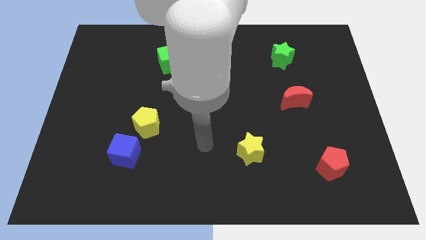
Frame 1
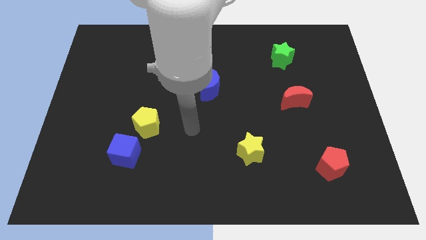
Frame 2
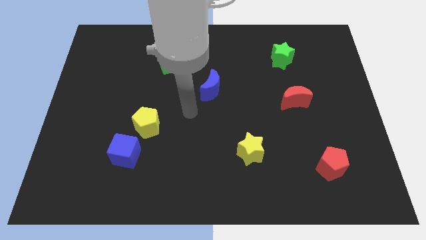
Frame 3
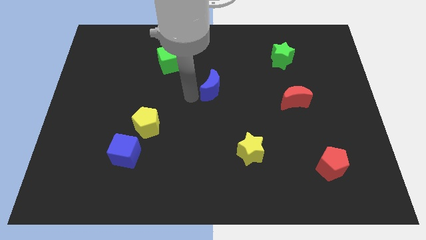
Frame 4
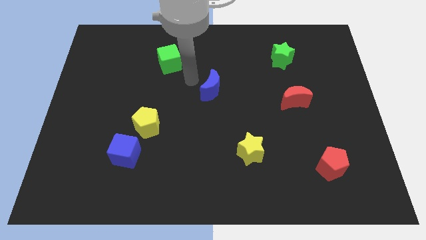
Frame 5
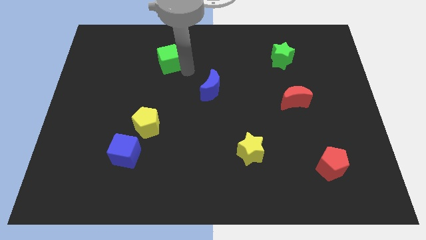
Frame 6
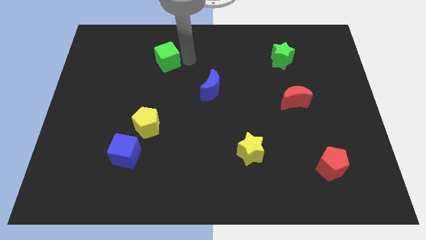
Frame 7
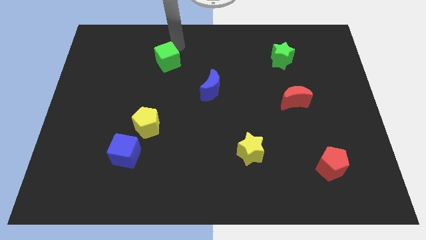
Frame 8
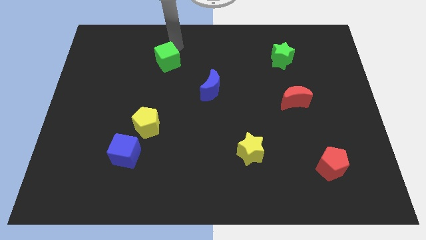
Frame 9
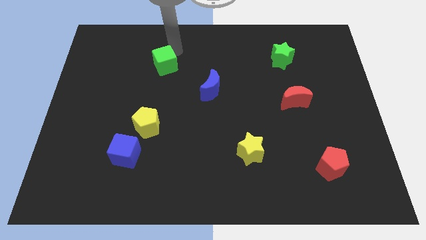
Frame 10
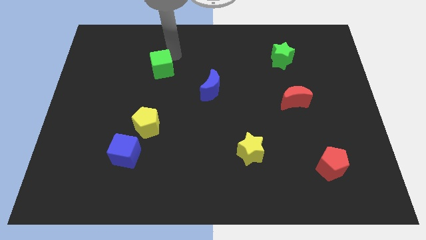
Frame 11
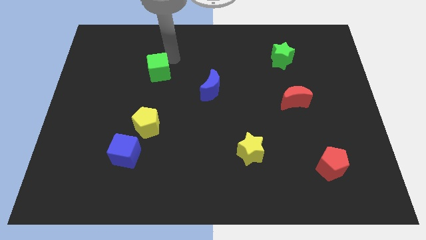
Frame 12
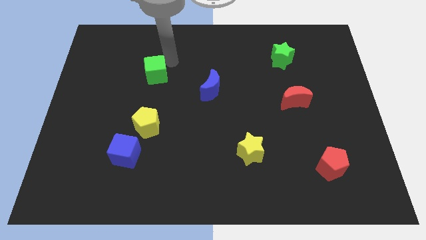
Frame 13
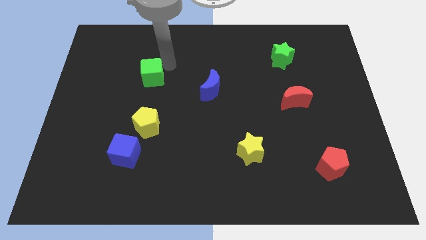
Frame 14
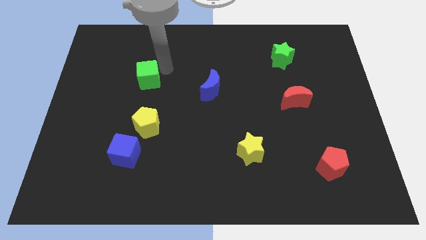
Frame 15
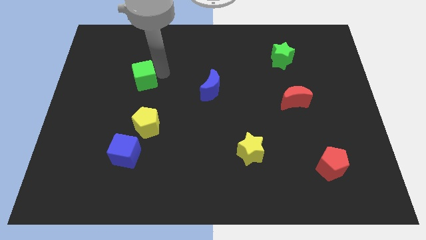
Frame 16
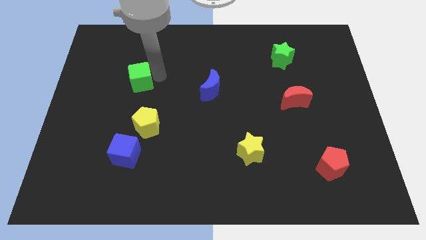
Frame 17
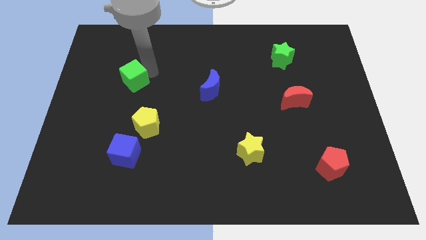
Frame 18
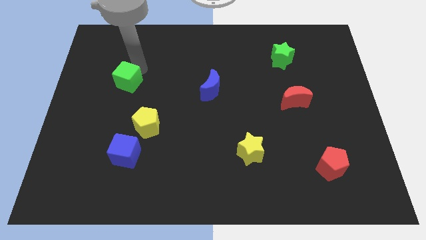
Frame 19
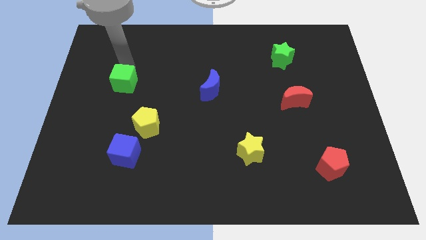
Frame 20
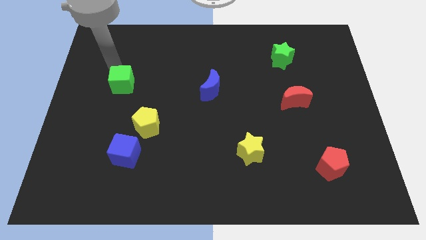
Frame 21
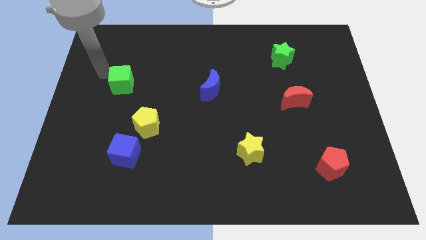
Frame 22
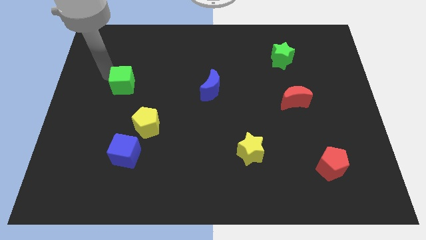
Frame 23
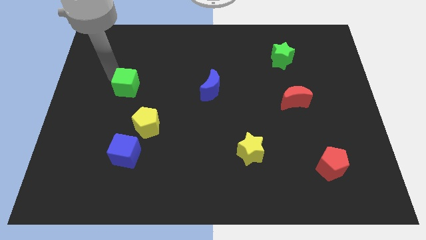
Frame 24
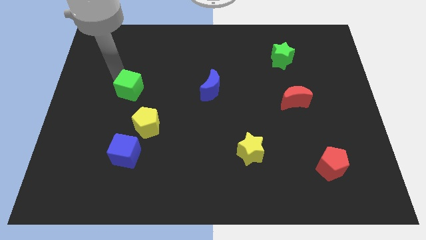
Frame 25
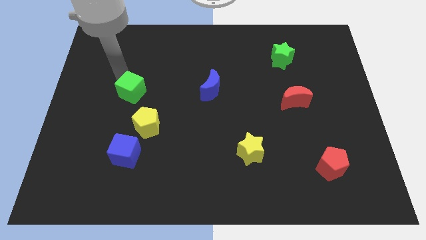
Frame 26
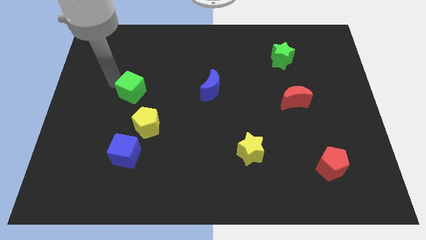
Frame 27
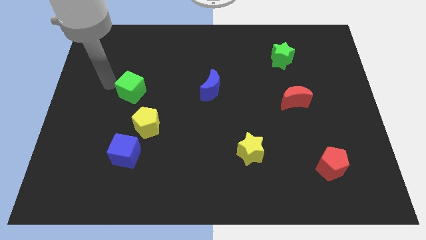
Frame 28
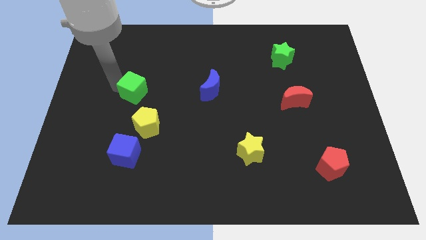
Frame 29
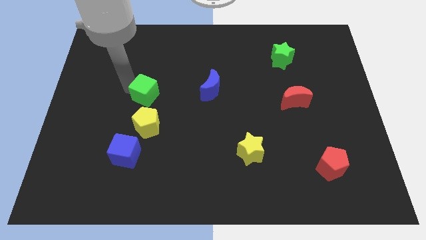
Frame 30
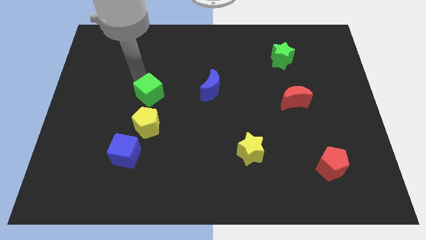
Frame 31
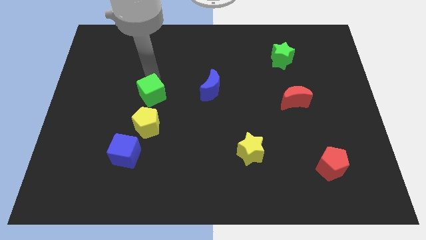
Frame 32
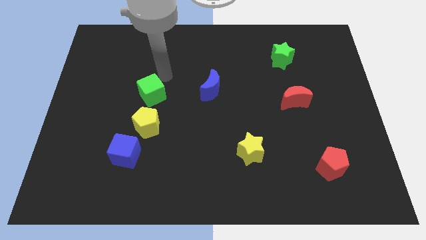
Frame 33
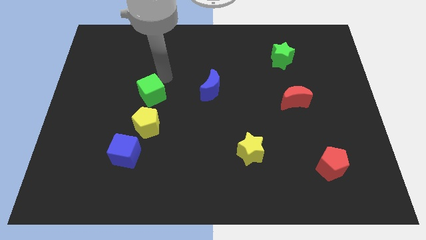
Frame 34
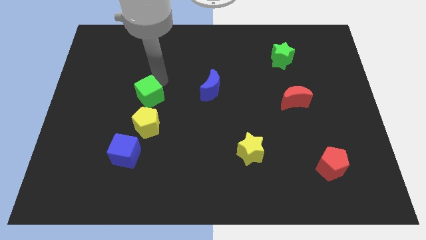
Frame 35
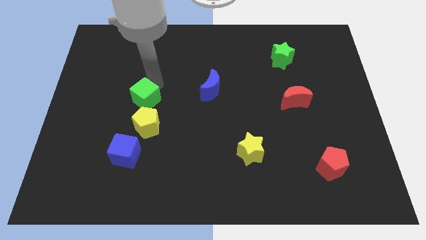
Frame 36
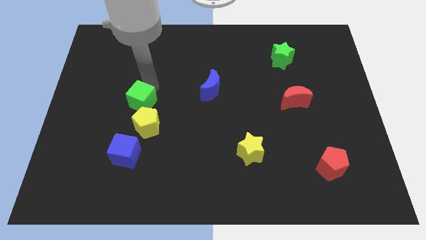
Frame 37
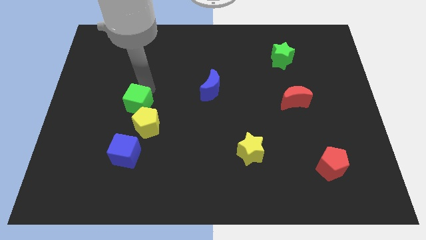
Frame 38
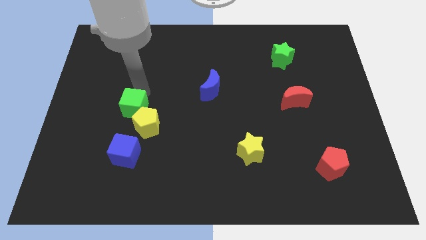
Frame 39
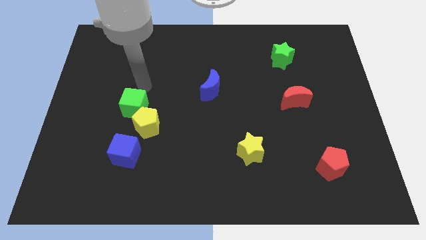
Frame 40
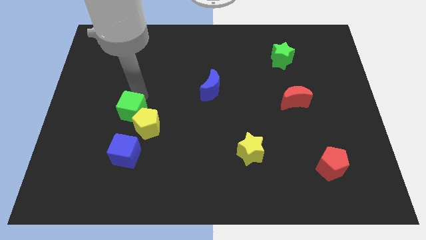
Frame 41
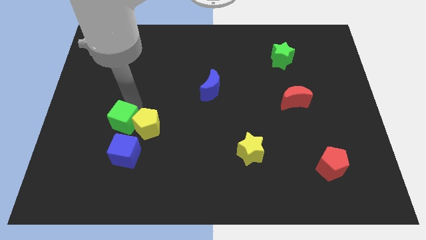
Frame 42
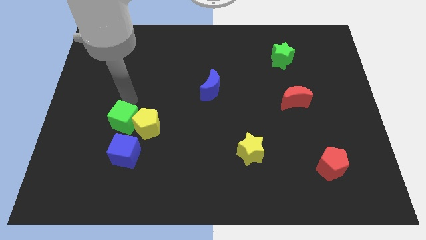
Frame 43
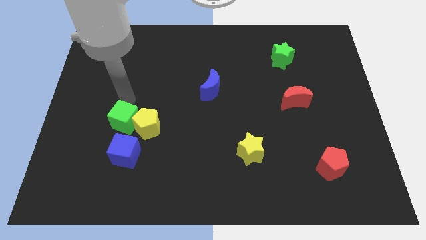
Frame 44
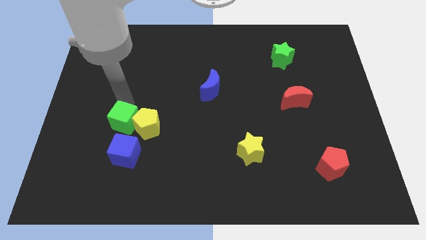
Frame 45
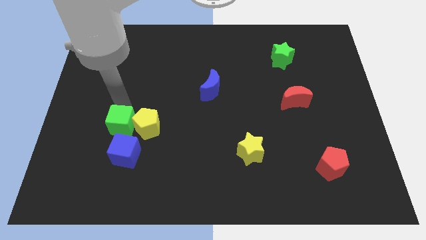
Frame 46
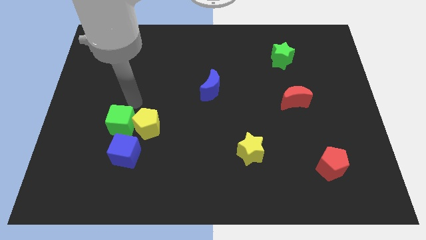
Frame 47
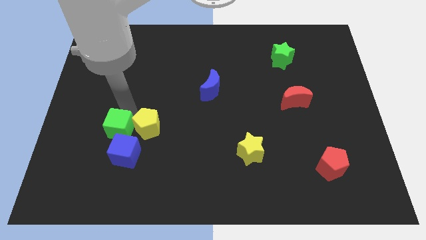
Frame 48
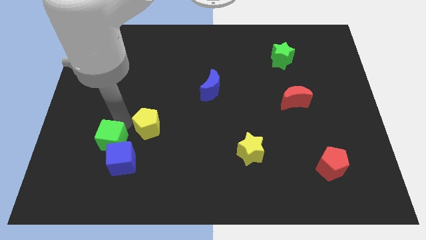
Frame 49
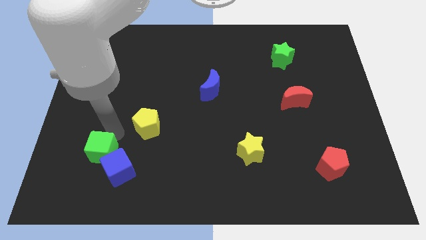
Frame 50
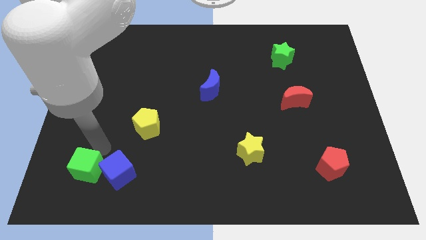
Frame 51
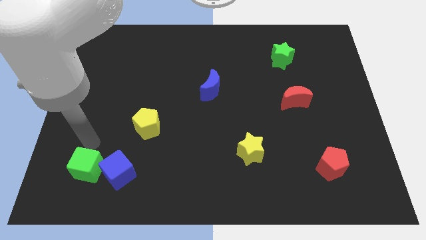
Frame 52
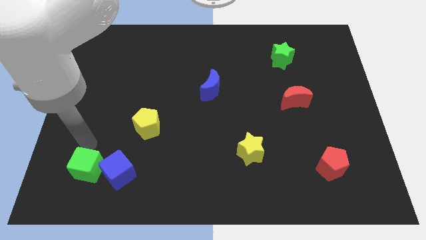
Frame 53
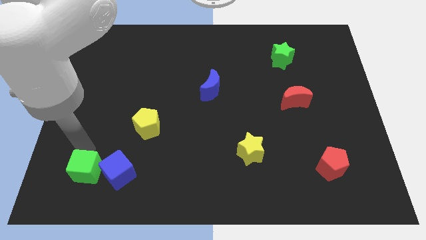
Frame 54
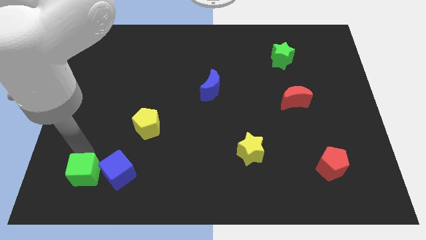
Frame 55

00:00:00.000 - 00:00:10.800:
move the green cube to the bottom left of the blue cube

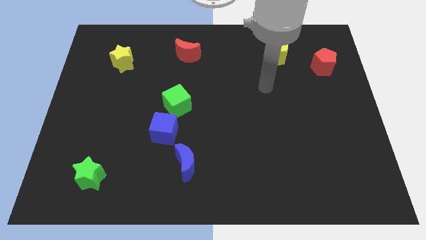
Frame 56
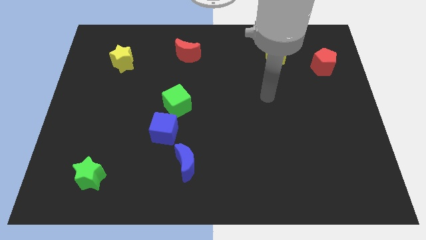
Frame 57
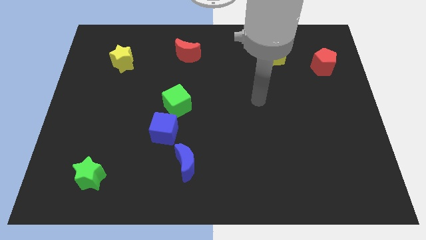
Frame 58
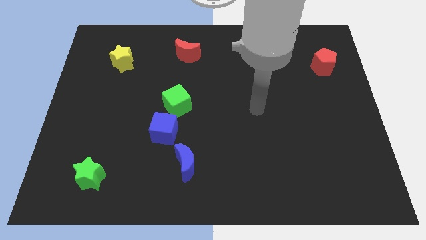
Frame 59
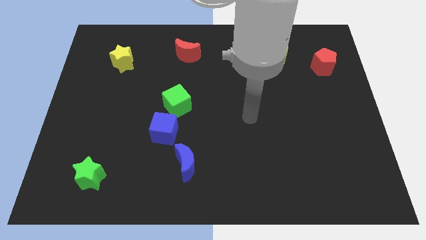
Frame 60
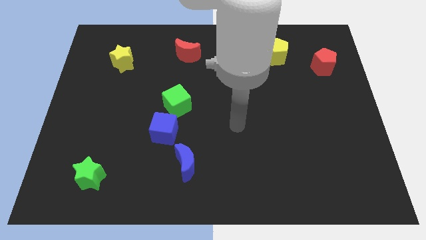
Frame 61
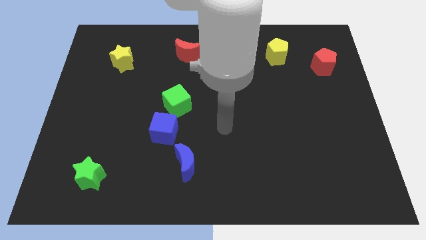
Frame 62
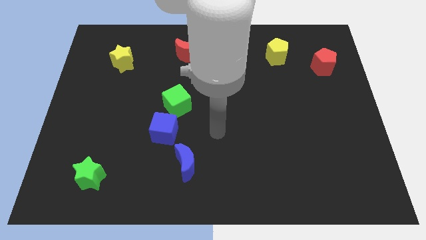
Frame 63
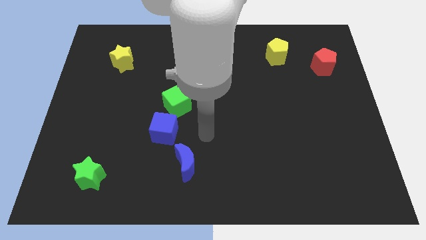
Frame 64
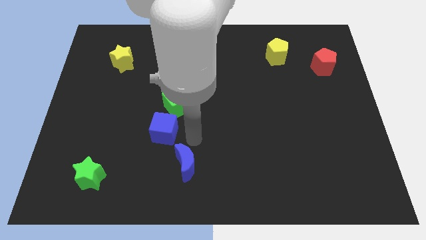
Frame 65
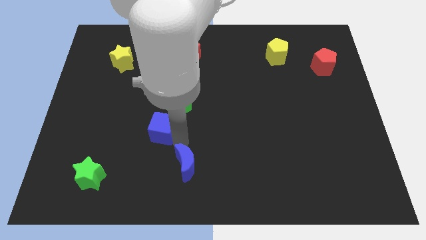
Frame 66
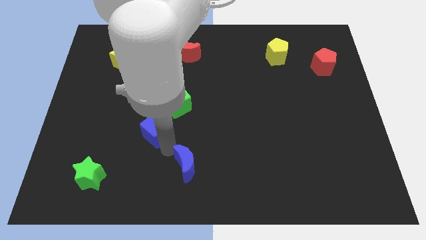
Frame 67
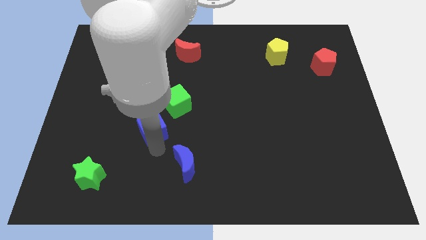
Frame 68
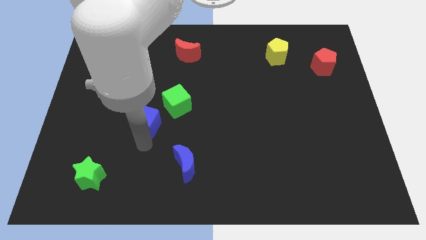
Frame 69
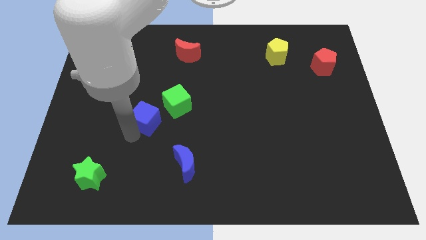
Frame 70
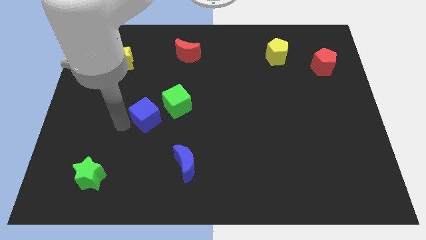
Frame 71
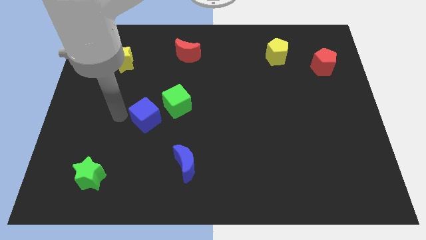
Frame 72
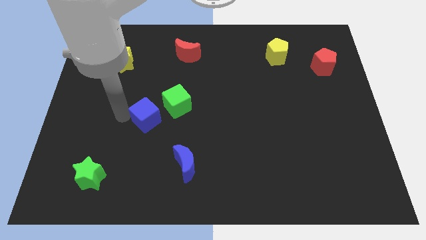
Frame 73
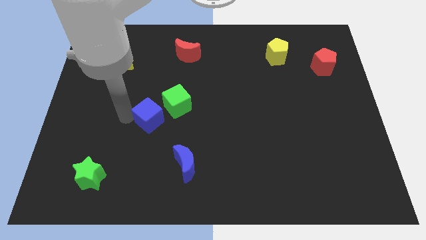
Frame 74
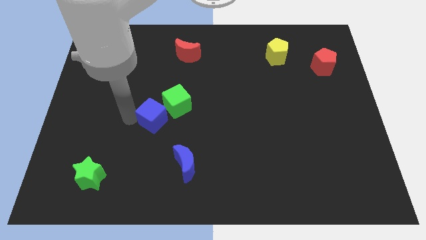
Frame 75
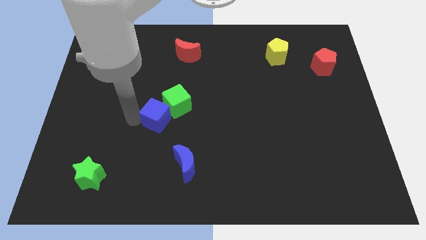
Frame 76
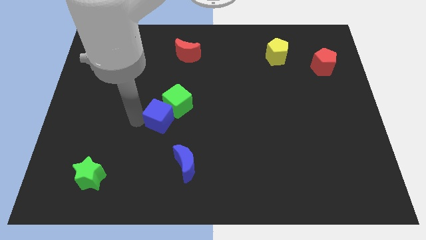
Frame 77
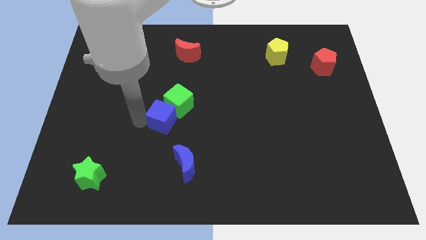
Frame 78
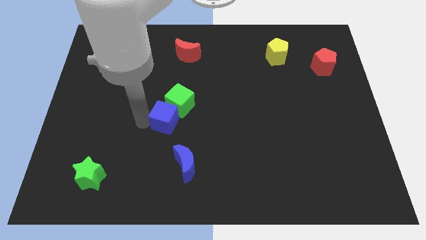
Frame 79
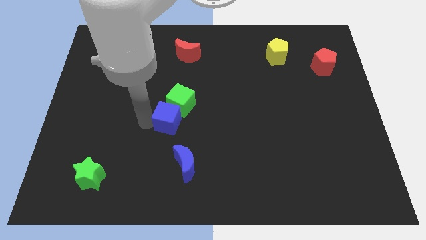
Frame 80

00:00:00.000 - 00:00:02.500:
slide the blue cube to the top side of the blue moon
